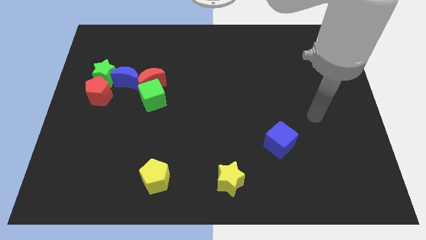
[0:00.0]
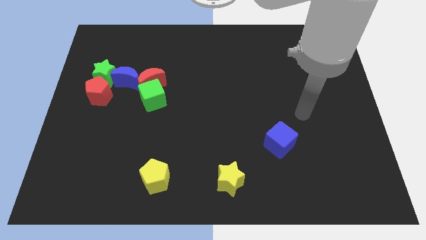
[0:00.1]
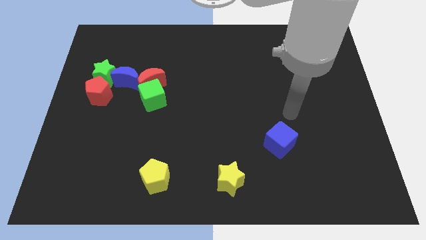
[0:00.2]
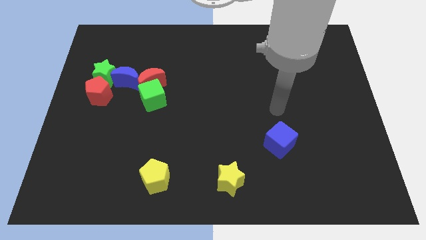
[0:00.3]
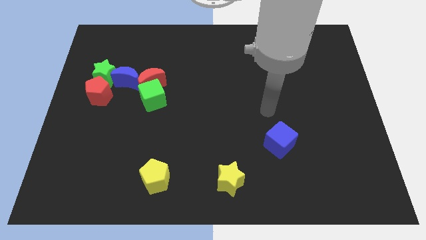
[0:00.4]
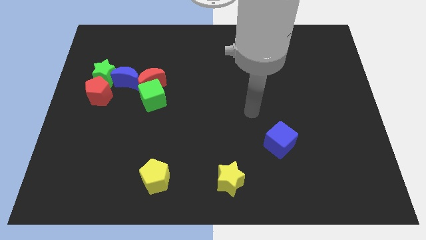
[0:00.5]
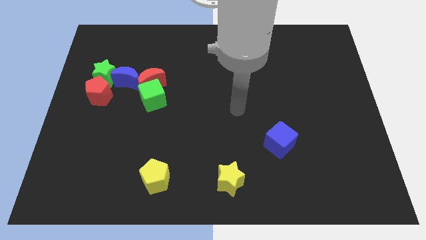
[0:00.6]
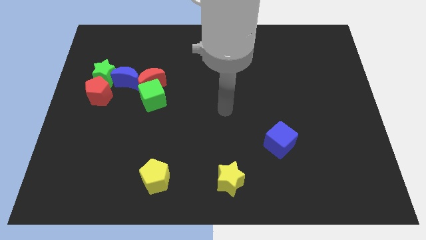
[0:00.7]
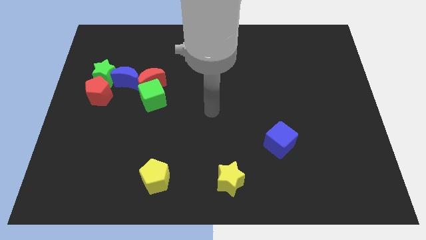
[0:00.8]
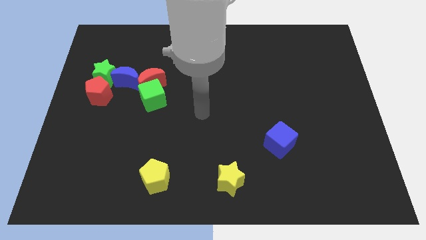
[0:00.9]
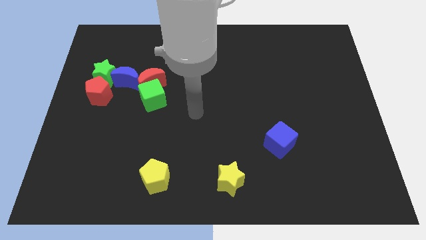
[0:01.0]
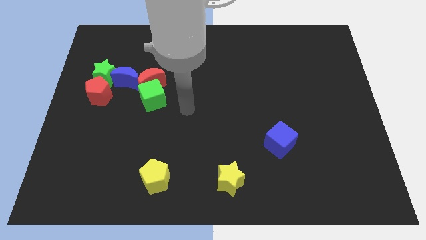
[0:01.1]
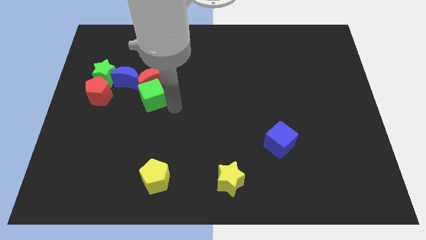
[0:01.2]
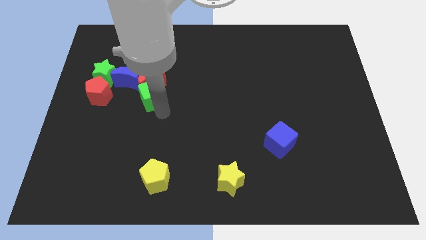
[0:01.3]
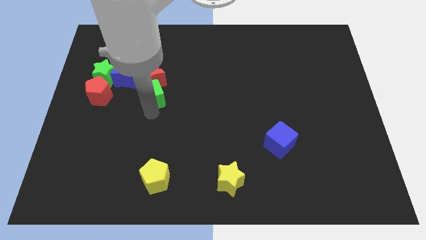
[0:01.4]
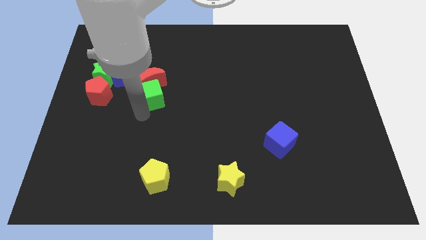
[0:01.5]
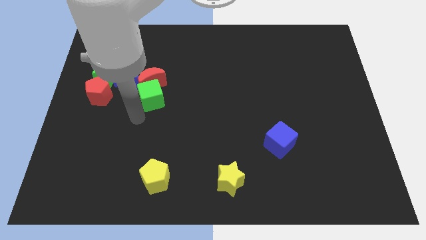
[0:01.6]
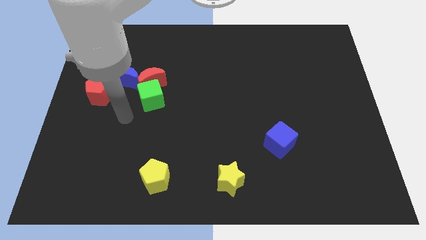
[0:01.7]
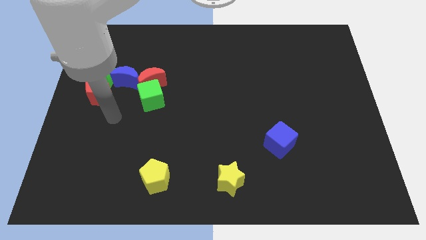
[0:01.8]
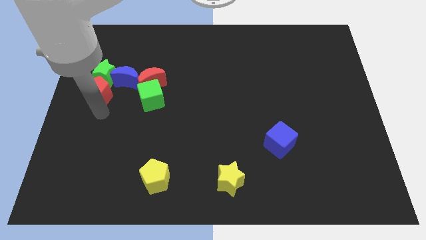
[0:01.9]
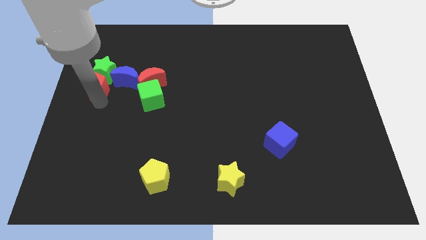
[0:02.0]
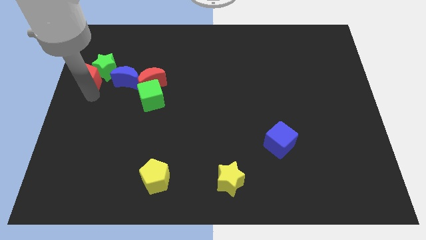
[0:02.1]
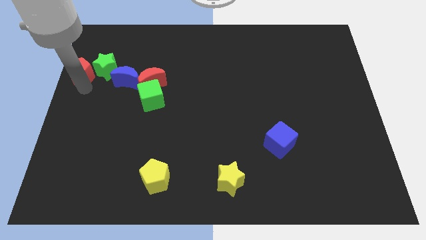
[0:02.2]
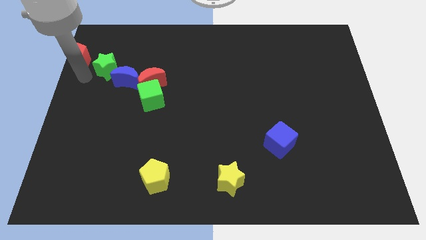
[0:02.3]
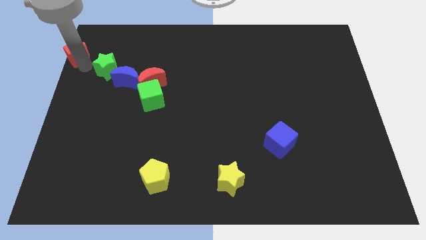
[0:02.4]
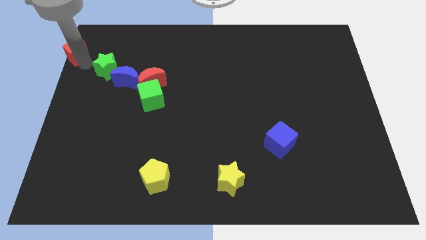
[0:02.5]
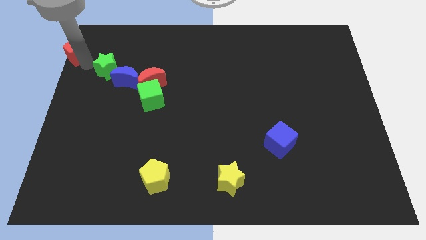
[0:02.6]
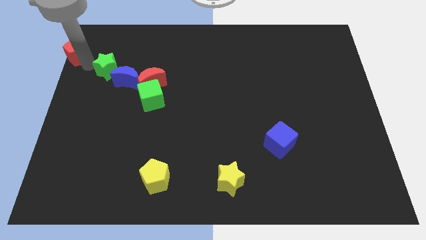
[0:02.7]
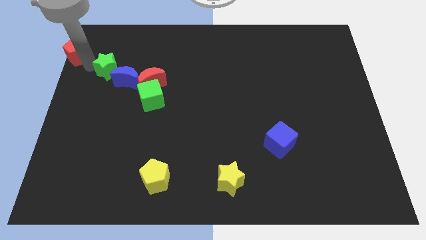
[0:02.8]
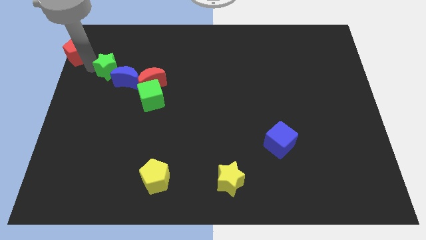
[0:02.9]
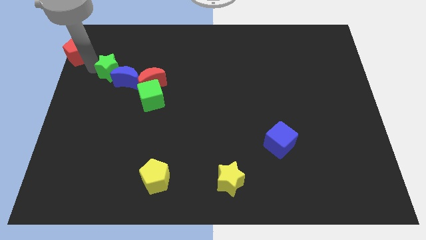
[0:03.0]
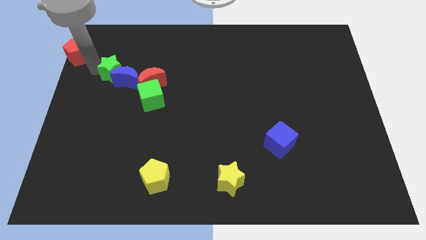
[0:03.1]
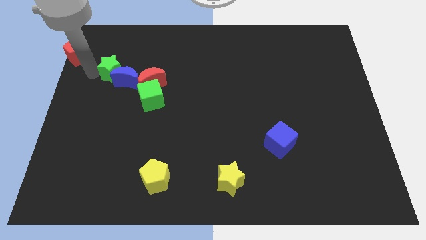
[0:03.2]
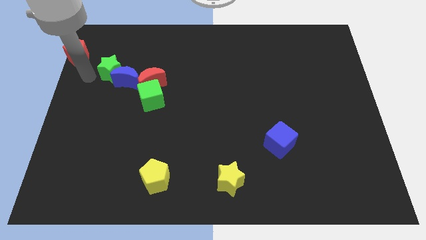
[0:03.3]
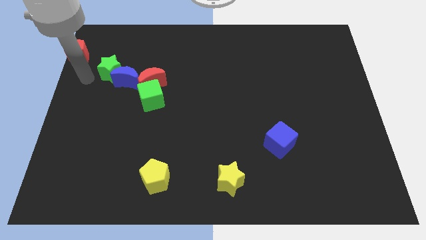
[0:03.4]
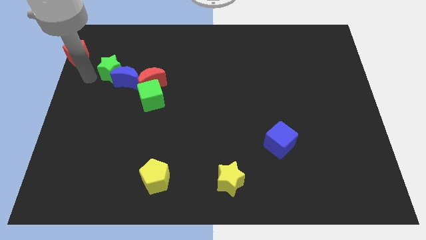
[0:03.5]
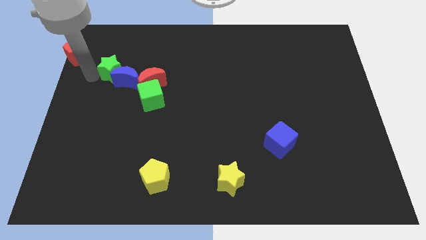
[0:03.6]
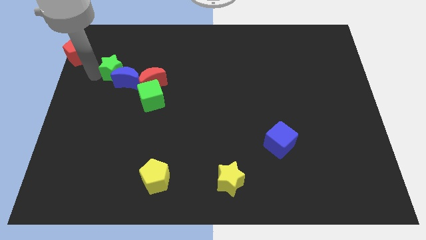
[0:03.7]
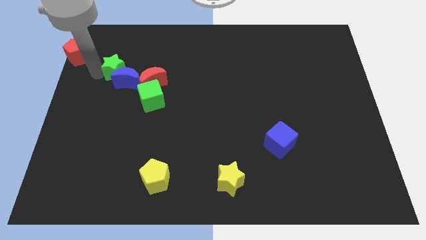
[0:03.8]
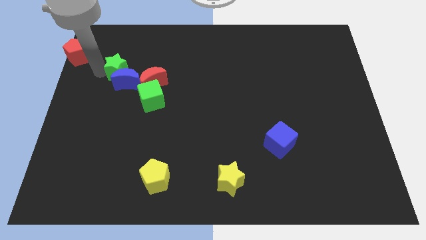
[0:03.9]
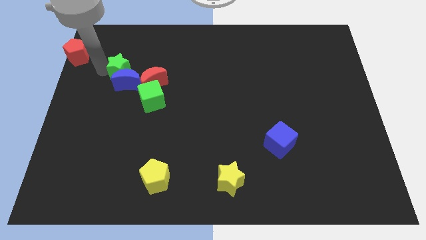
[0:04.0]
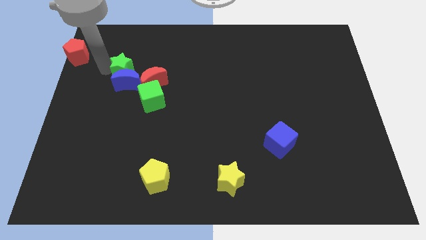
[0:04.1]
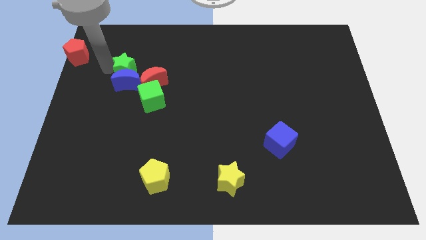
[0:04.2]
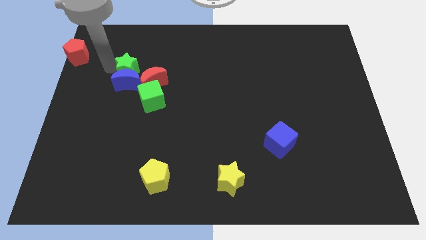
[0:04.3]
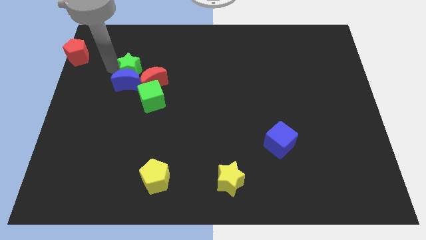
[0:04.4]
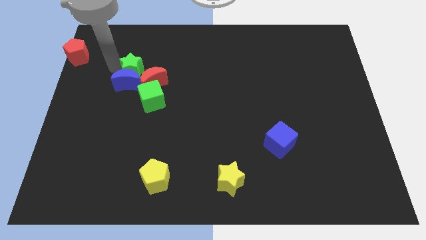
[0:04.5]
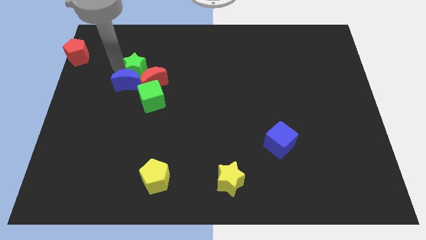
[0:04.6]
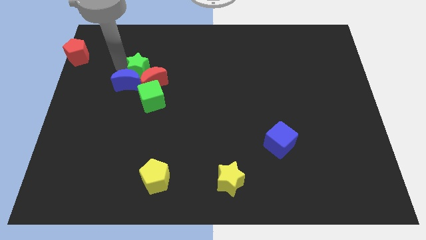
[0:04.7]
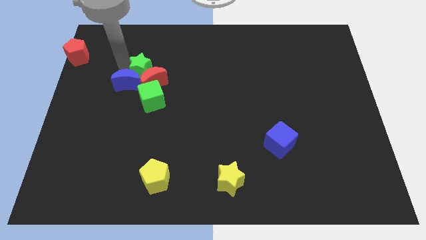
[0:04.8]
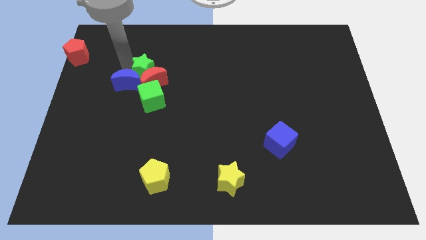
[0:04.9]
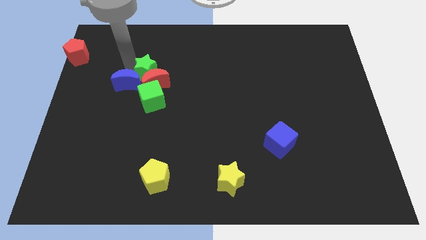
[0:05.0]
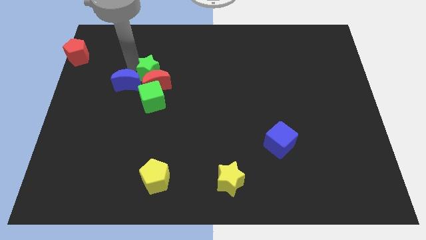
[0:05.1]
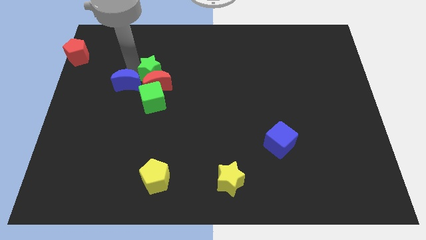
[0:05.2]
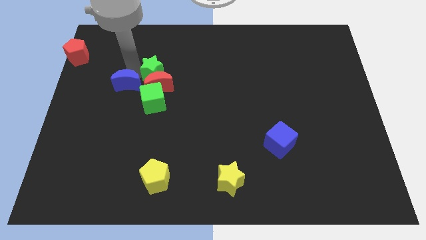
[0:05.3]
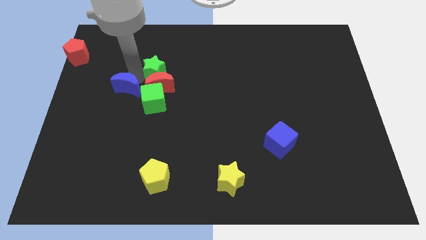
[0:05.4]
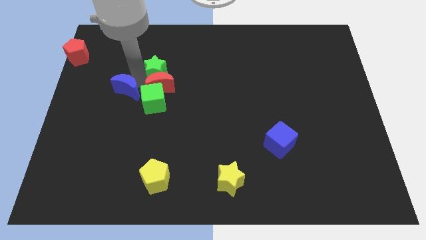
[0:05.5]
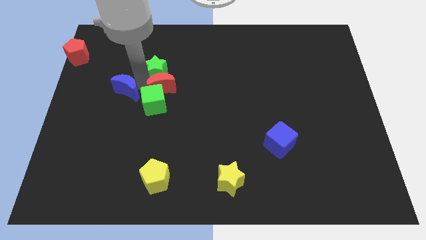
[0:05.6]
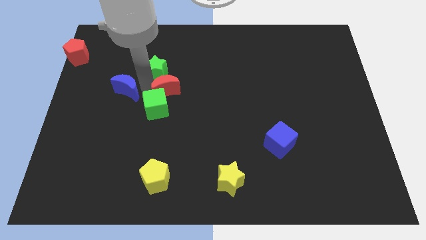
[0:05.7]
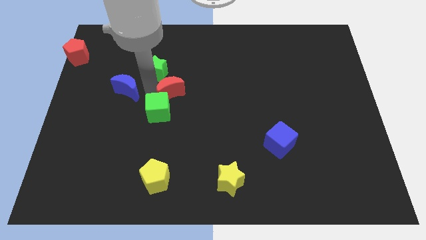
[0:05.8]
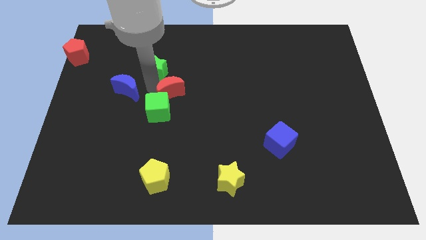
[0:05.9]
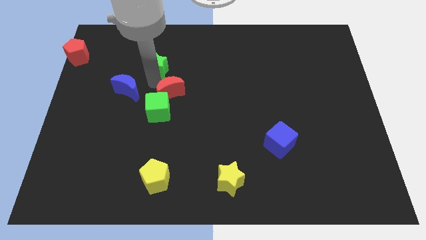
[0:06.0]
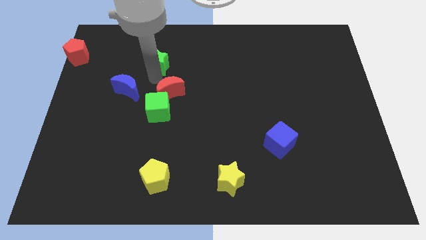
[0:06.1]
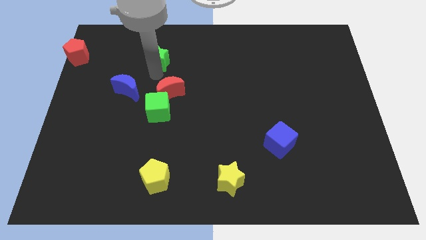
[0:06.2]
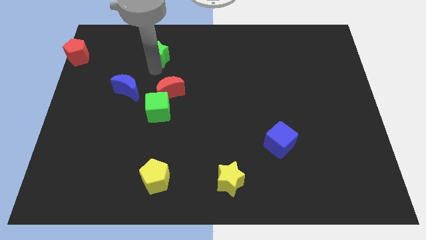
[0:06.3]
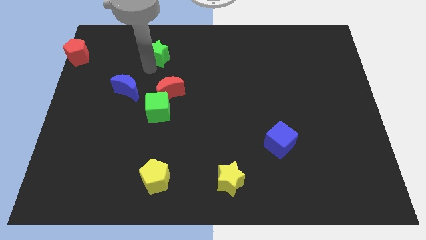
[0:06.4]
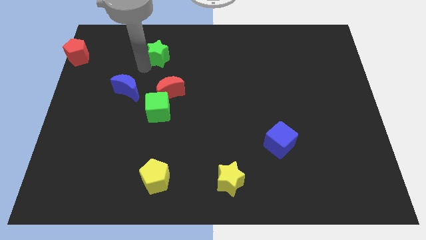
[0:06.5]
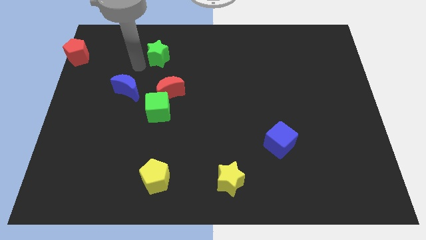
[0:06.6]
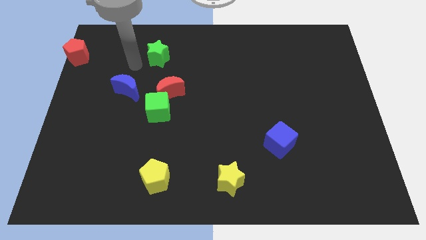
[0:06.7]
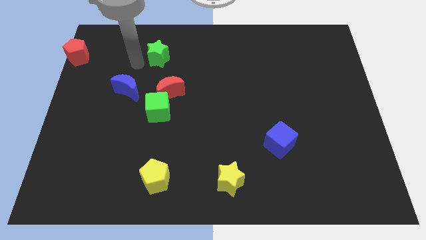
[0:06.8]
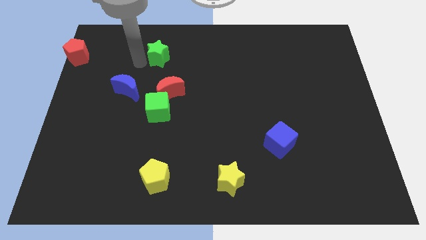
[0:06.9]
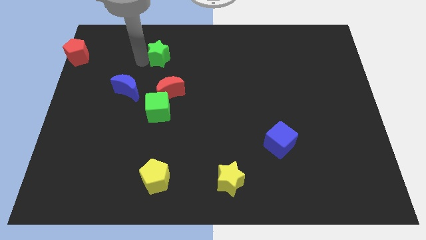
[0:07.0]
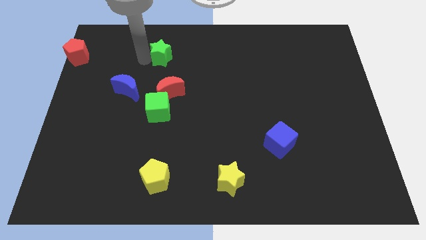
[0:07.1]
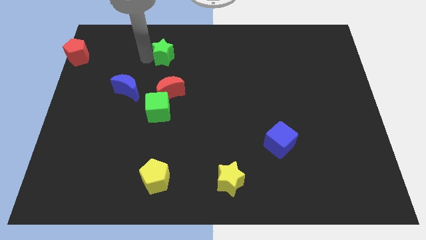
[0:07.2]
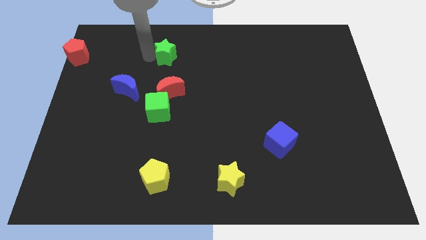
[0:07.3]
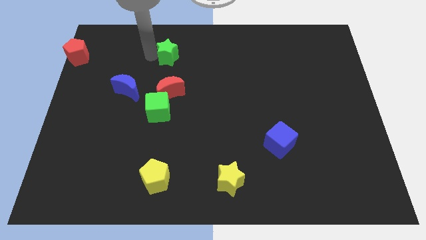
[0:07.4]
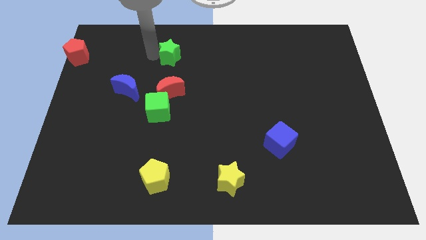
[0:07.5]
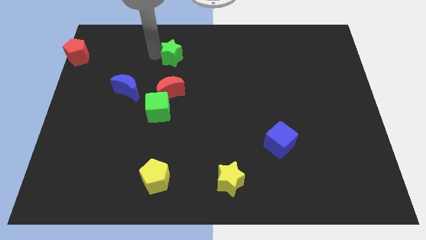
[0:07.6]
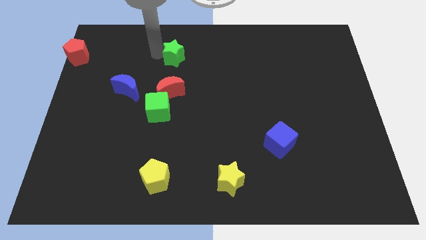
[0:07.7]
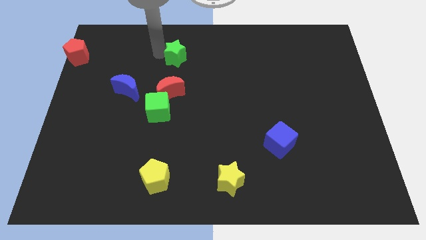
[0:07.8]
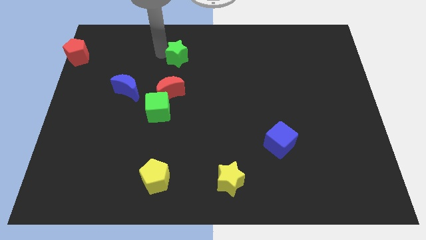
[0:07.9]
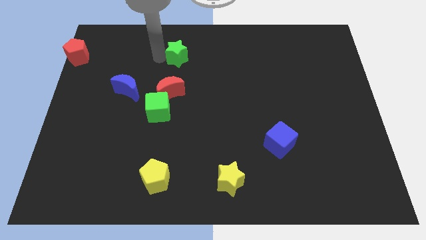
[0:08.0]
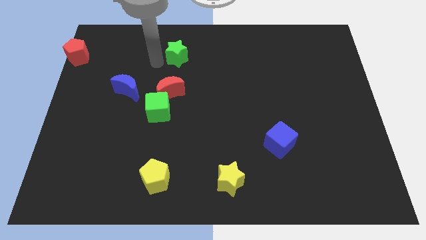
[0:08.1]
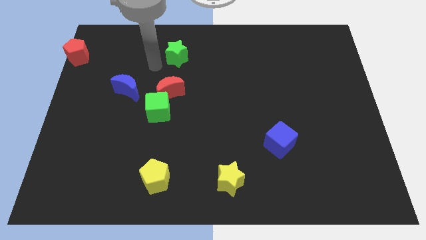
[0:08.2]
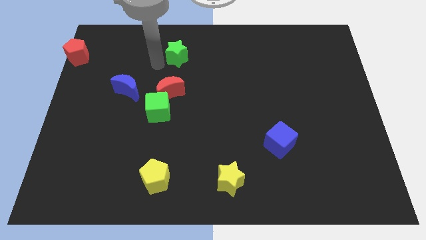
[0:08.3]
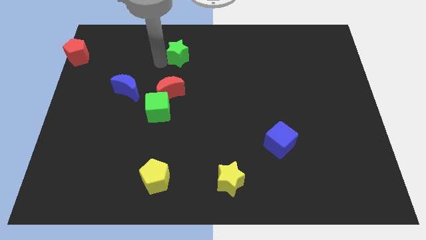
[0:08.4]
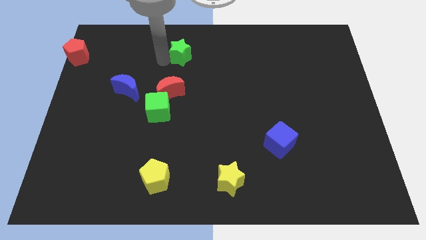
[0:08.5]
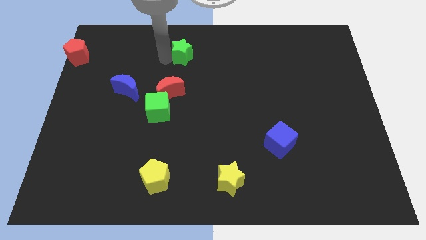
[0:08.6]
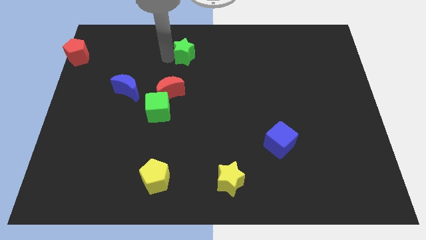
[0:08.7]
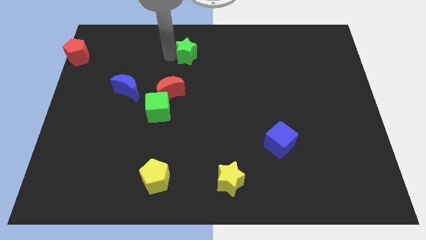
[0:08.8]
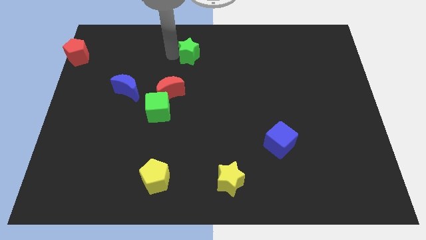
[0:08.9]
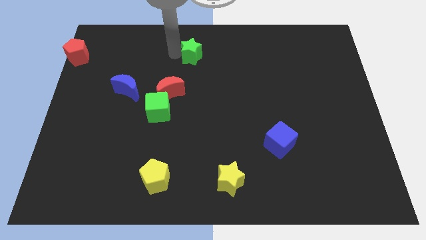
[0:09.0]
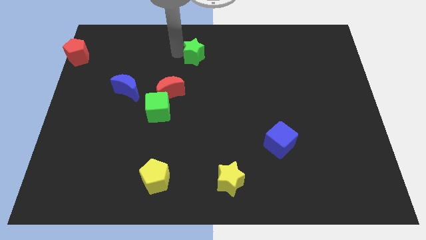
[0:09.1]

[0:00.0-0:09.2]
slide the green star to the towards your base
